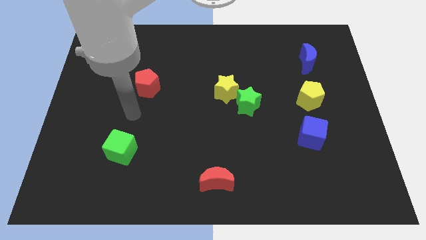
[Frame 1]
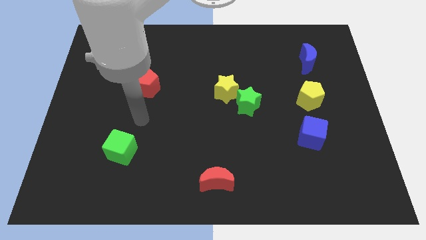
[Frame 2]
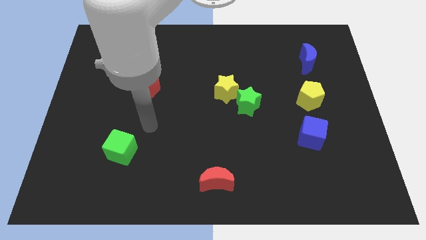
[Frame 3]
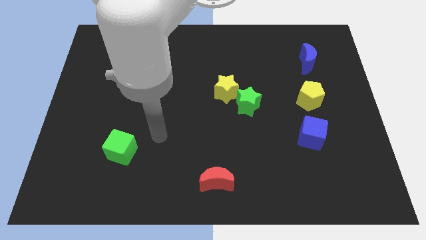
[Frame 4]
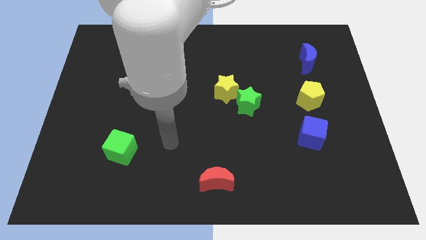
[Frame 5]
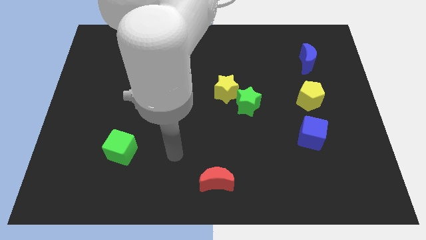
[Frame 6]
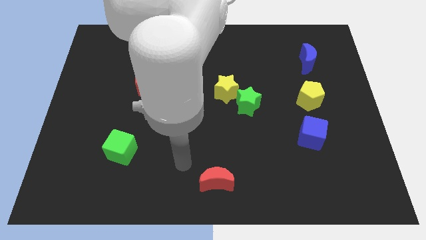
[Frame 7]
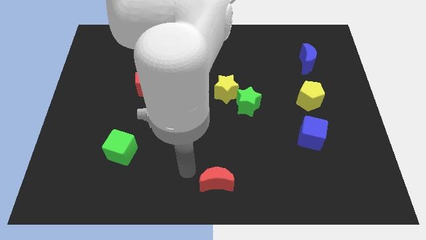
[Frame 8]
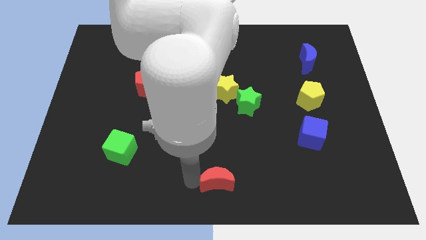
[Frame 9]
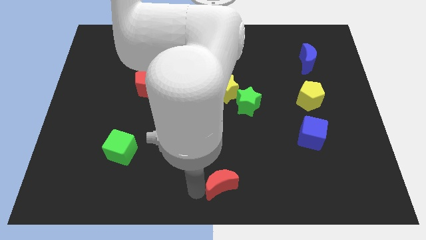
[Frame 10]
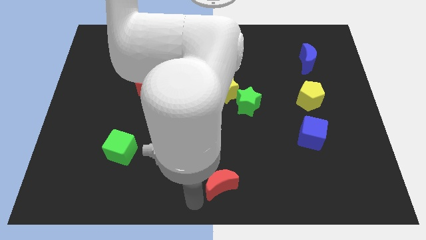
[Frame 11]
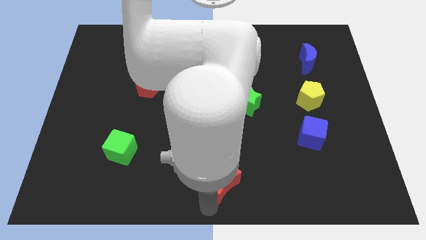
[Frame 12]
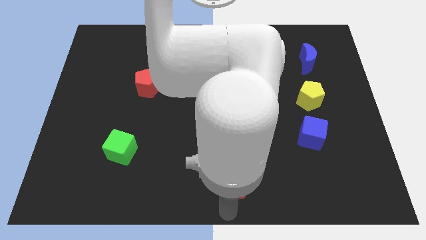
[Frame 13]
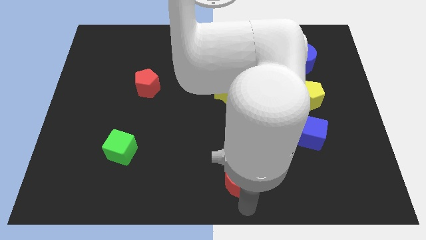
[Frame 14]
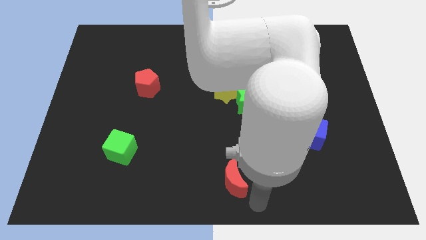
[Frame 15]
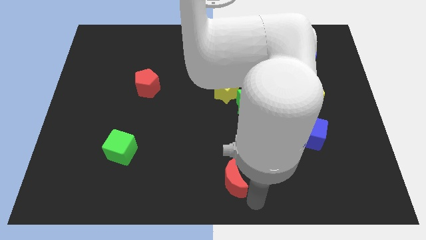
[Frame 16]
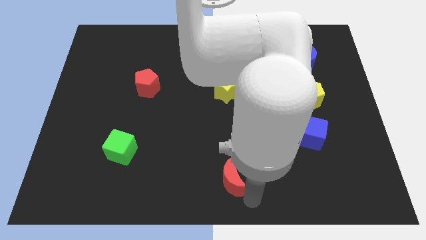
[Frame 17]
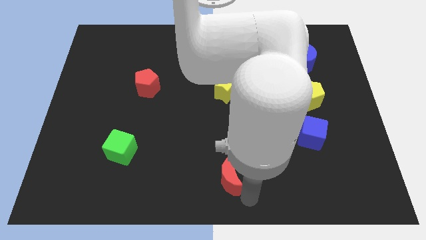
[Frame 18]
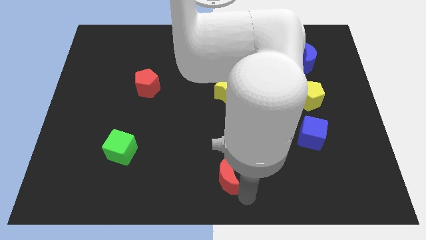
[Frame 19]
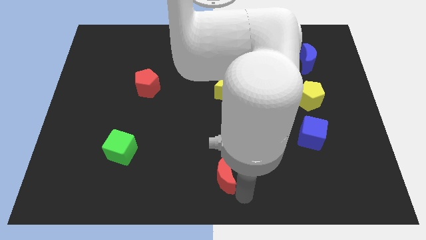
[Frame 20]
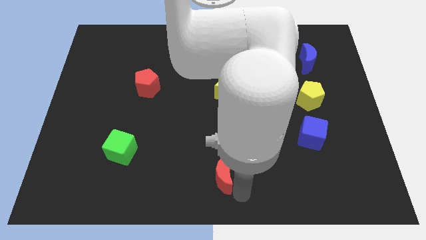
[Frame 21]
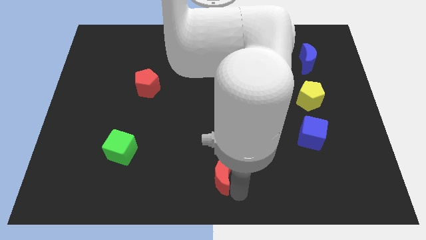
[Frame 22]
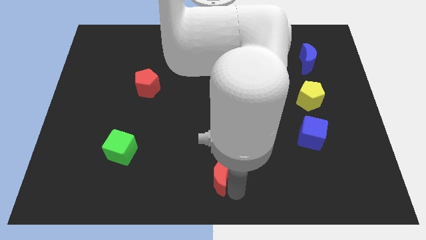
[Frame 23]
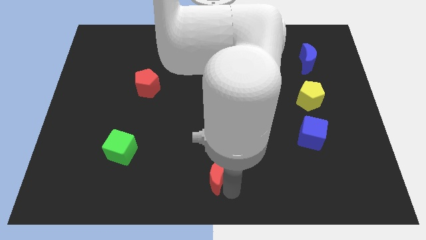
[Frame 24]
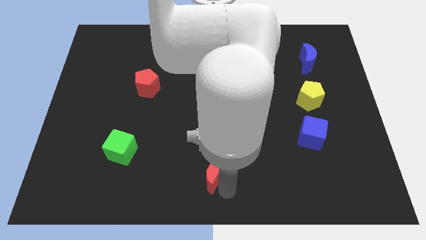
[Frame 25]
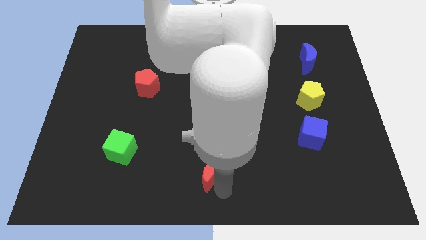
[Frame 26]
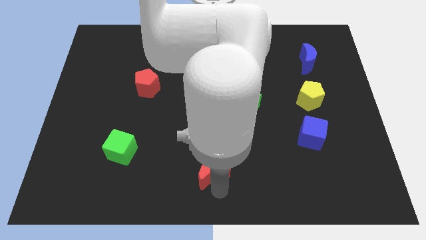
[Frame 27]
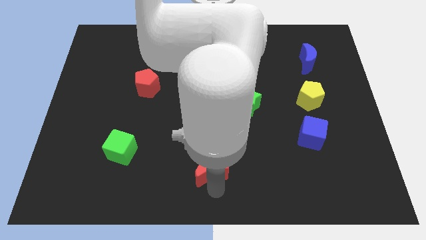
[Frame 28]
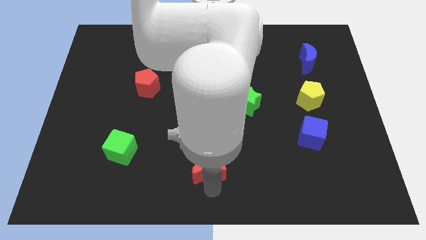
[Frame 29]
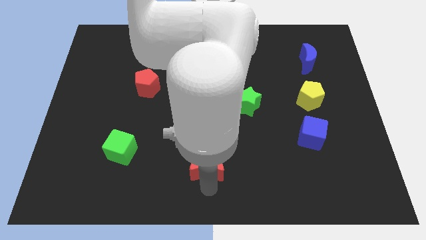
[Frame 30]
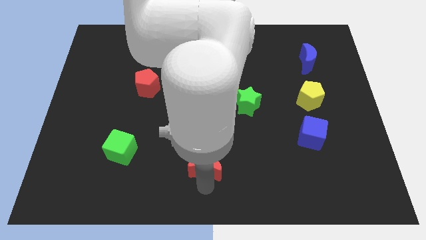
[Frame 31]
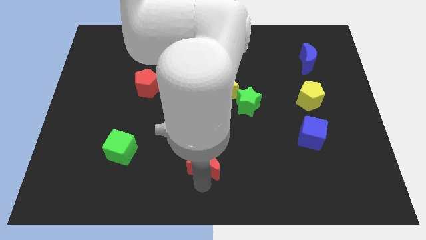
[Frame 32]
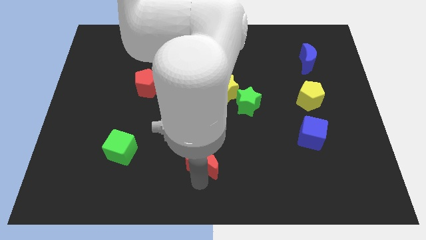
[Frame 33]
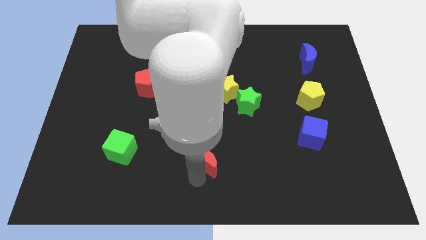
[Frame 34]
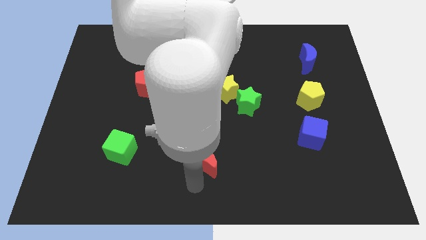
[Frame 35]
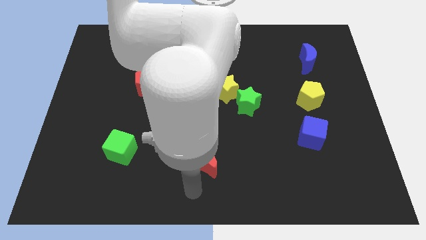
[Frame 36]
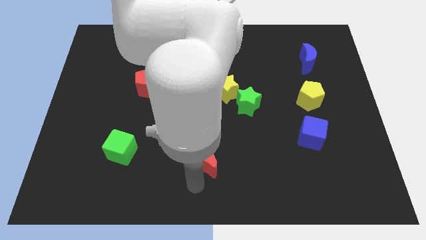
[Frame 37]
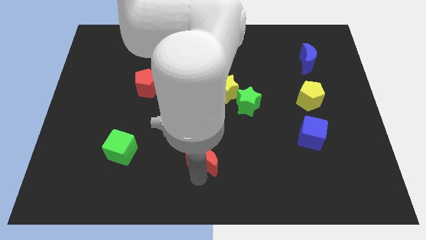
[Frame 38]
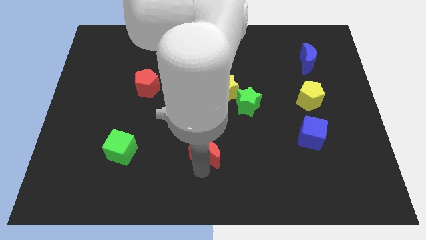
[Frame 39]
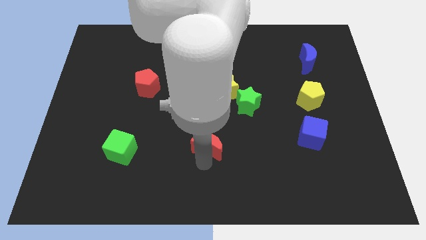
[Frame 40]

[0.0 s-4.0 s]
slightly slide the red moon upwards

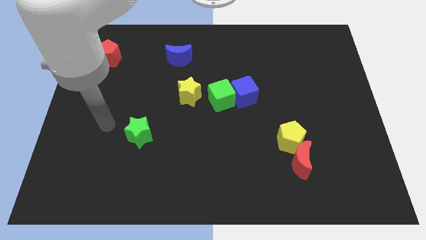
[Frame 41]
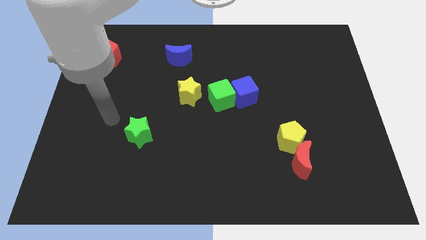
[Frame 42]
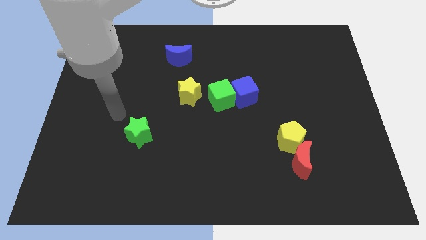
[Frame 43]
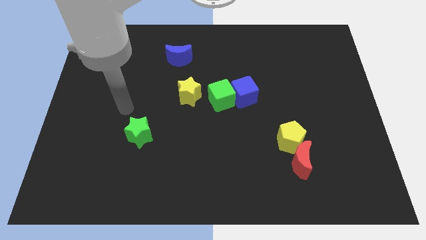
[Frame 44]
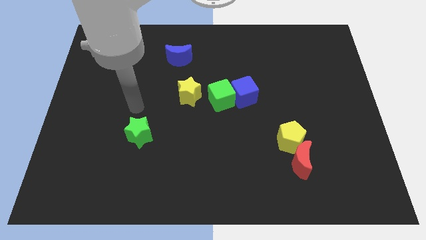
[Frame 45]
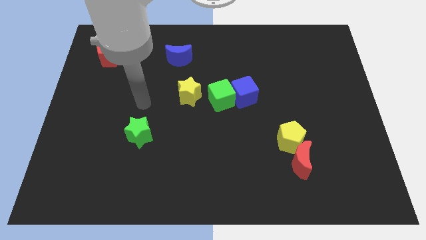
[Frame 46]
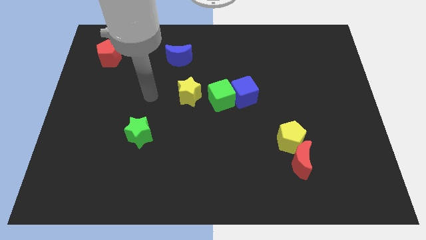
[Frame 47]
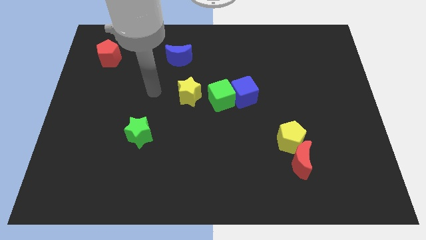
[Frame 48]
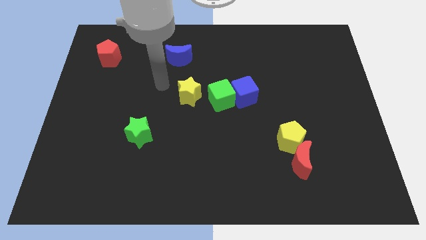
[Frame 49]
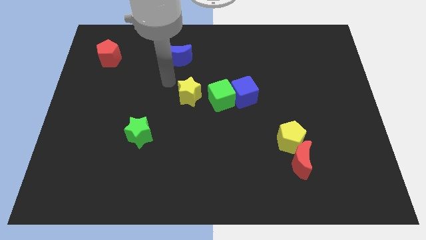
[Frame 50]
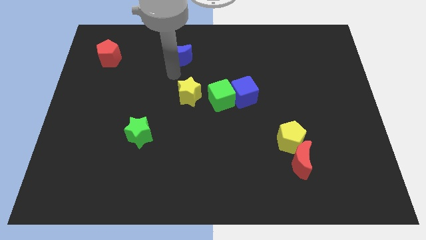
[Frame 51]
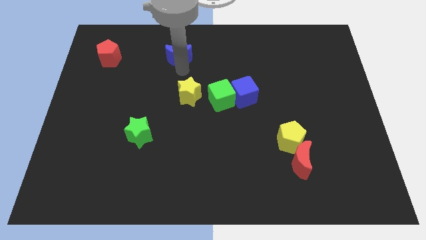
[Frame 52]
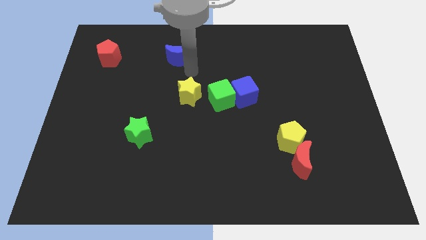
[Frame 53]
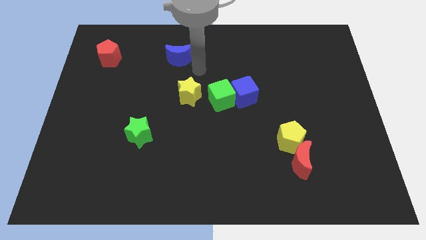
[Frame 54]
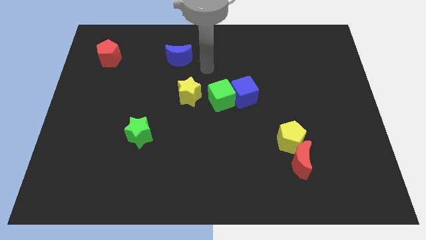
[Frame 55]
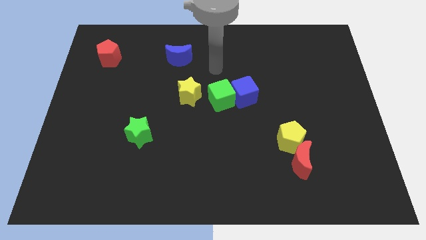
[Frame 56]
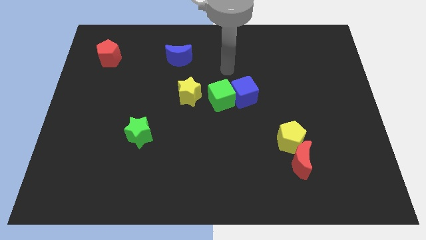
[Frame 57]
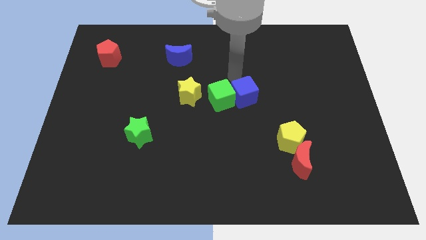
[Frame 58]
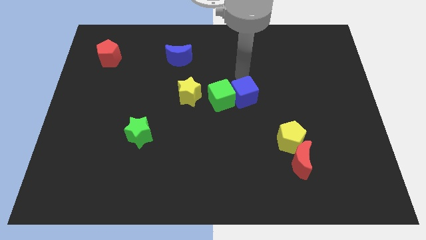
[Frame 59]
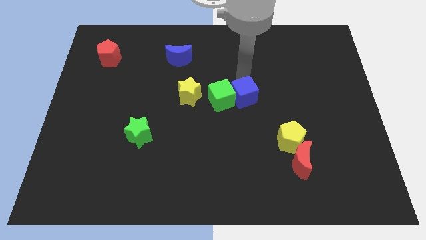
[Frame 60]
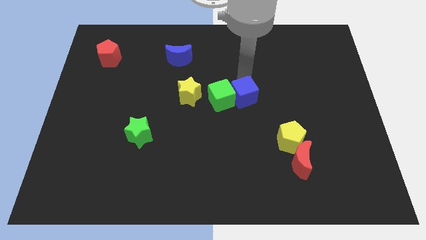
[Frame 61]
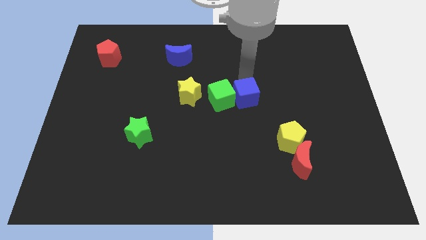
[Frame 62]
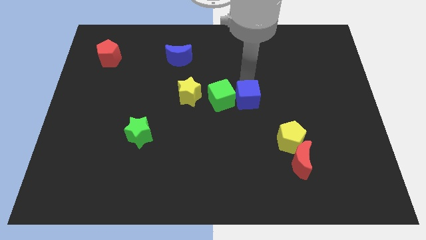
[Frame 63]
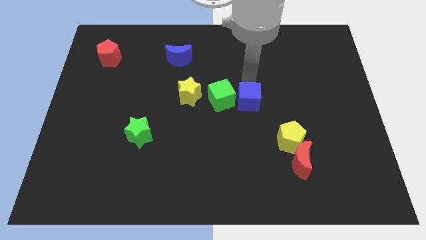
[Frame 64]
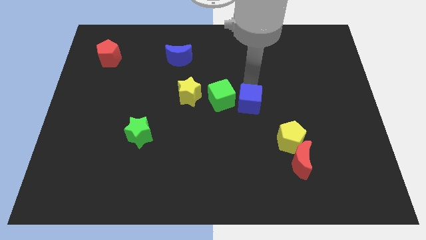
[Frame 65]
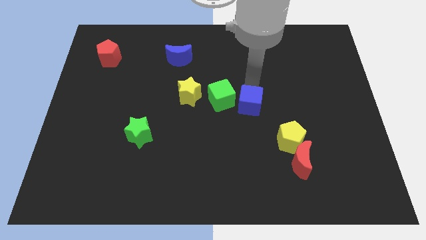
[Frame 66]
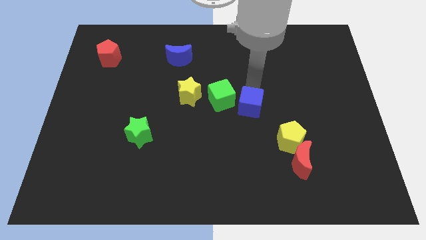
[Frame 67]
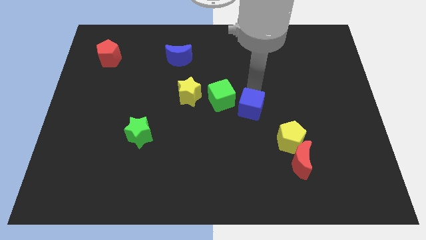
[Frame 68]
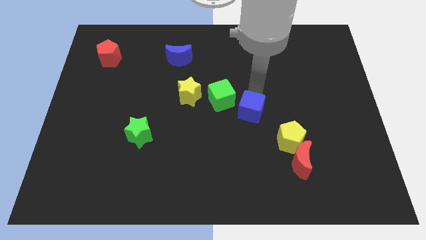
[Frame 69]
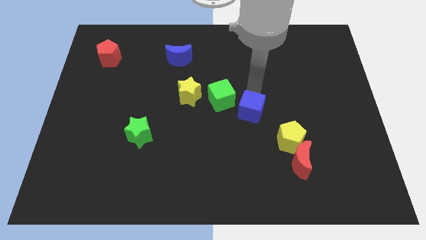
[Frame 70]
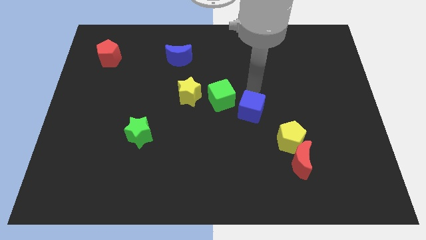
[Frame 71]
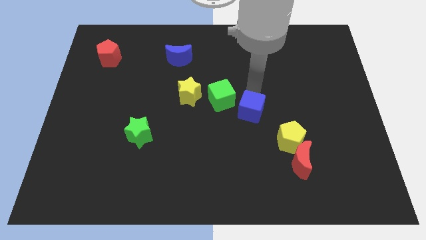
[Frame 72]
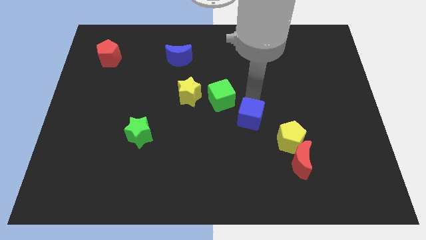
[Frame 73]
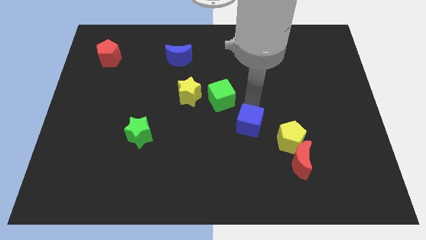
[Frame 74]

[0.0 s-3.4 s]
slide the blue cube somewhat downwards

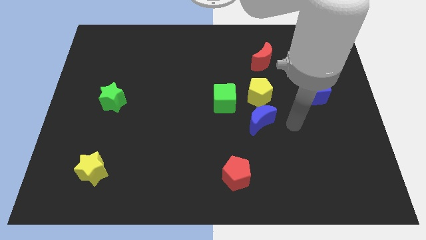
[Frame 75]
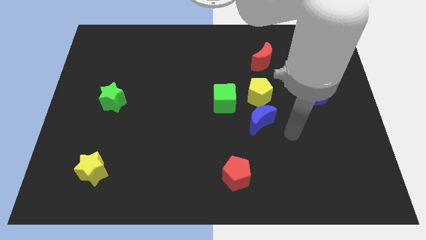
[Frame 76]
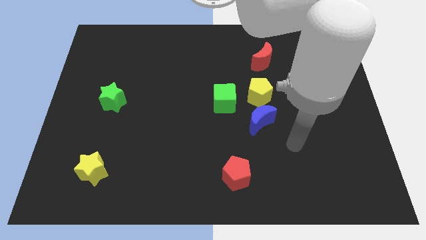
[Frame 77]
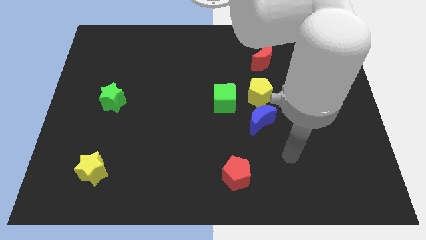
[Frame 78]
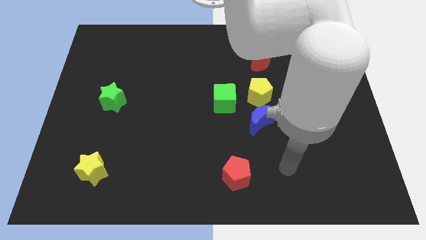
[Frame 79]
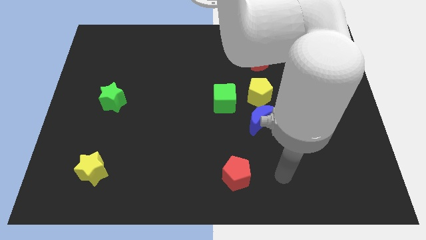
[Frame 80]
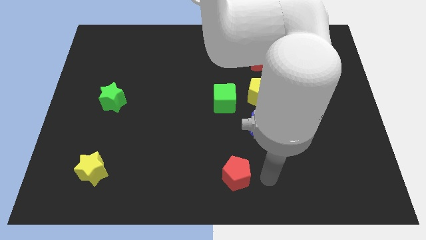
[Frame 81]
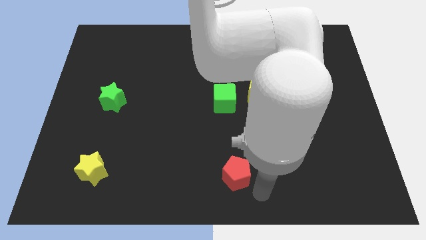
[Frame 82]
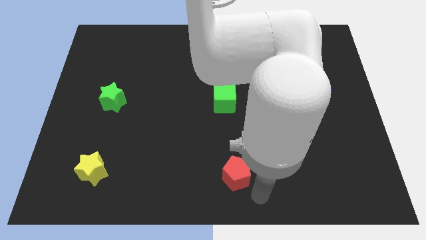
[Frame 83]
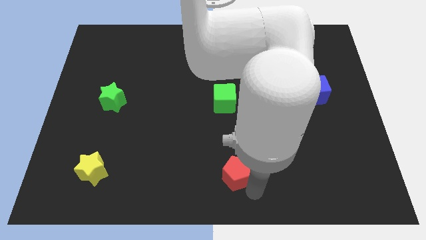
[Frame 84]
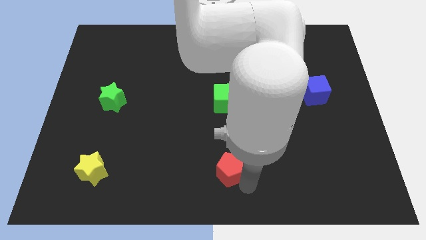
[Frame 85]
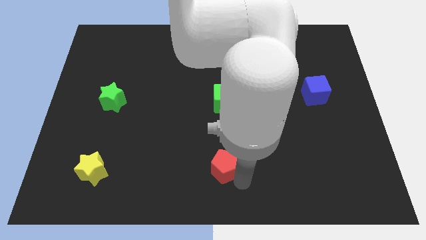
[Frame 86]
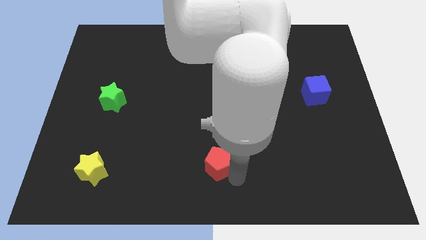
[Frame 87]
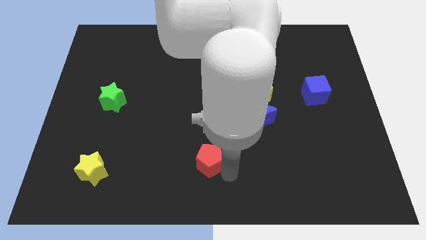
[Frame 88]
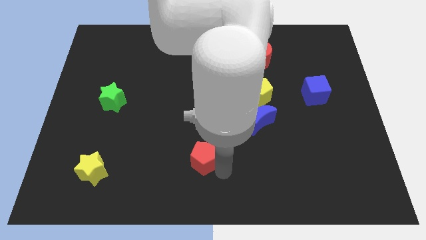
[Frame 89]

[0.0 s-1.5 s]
move the red pentagon upwards and to the left a little
